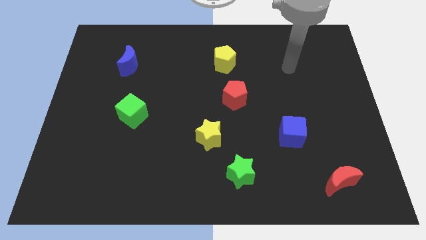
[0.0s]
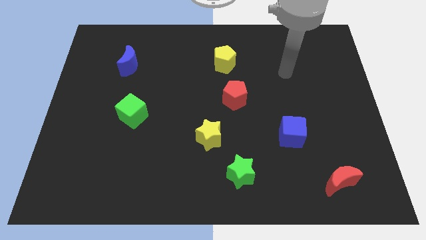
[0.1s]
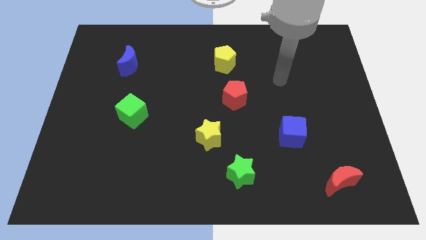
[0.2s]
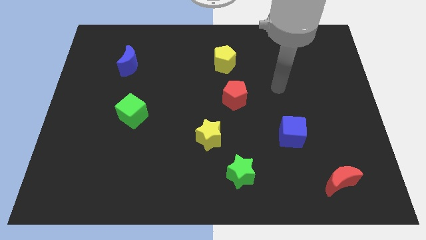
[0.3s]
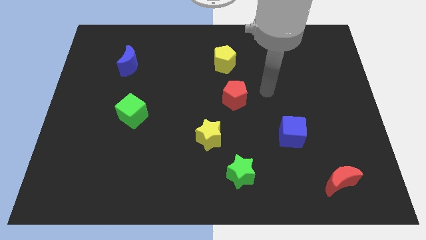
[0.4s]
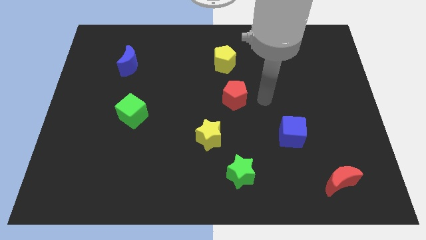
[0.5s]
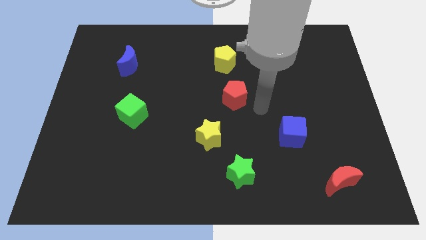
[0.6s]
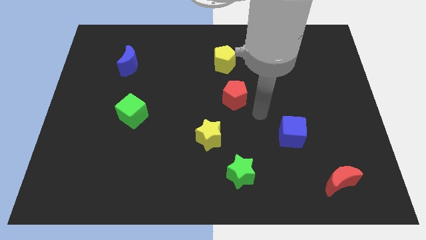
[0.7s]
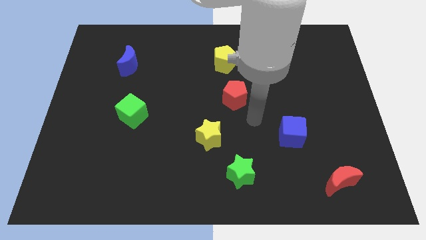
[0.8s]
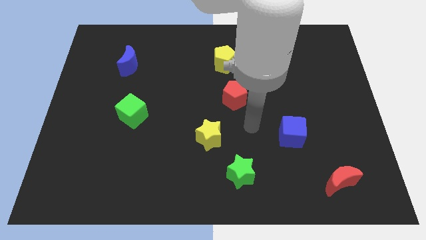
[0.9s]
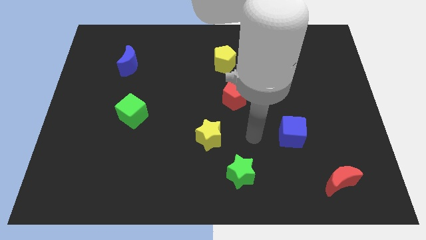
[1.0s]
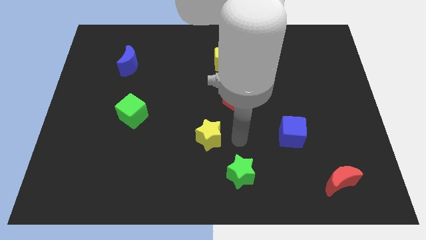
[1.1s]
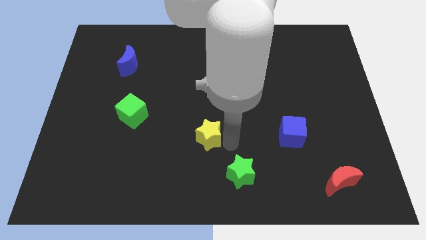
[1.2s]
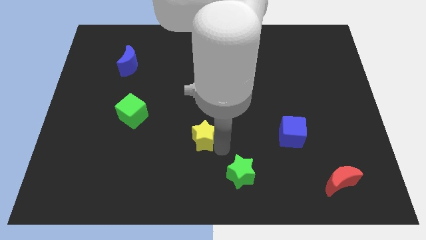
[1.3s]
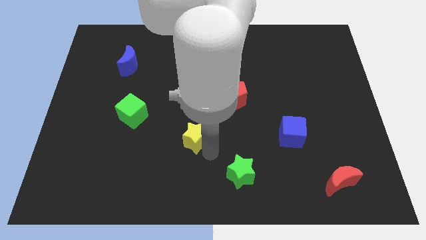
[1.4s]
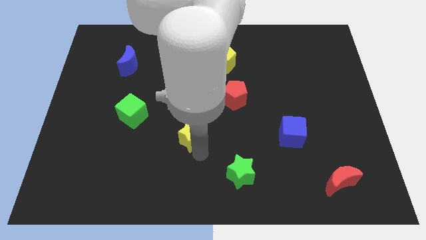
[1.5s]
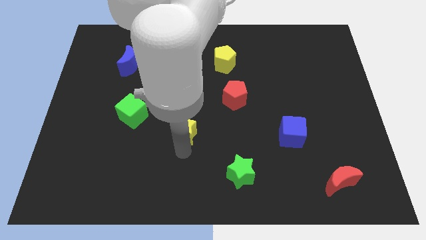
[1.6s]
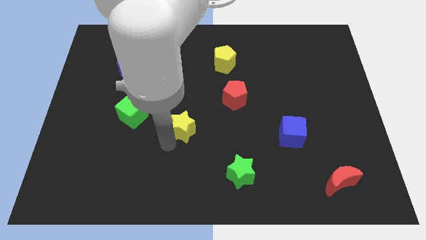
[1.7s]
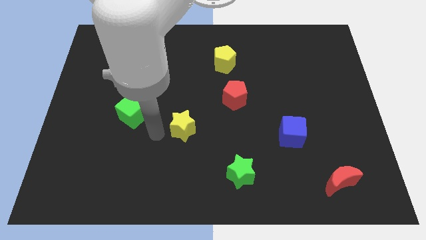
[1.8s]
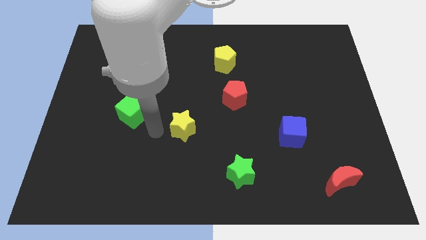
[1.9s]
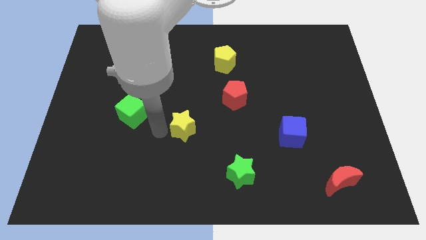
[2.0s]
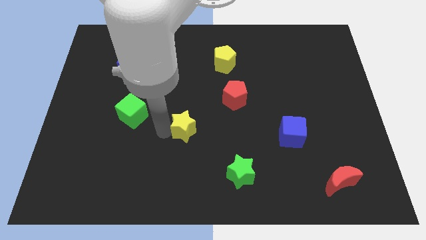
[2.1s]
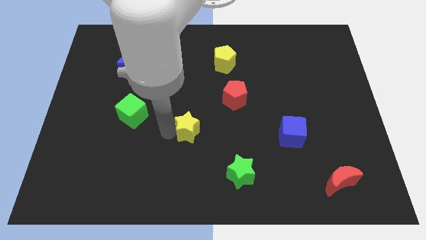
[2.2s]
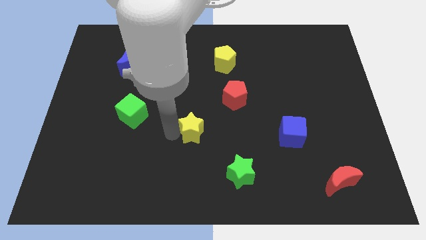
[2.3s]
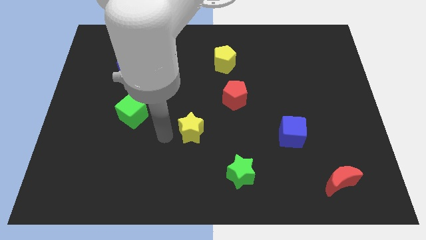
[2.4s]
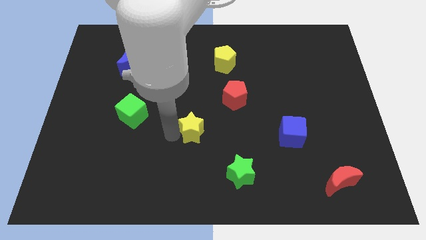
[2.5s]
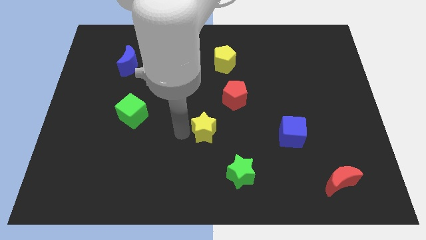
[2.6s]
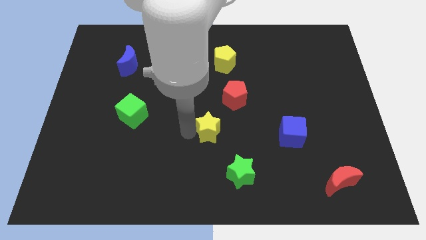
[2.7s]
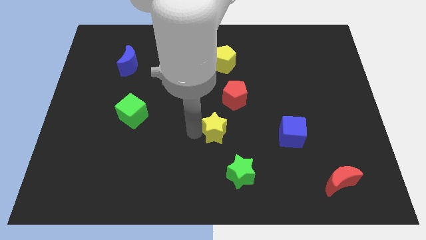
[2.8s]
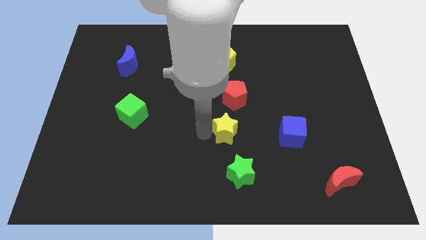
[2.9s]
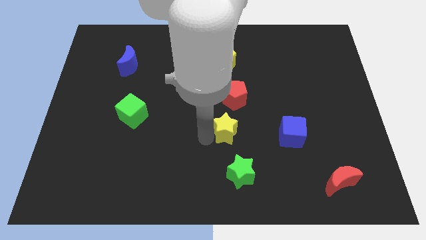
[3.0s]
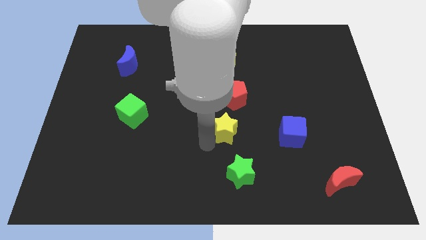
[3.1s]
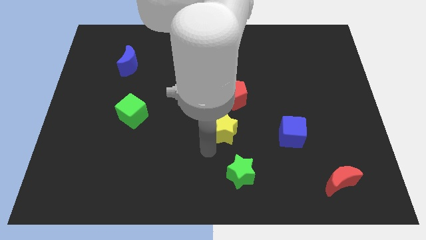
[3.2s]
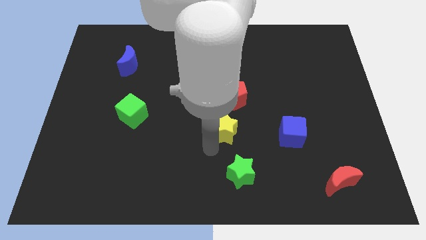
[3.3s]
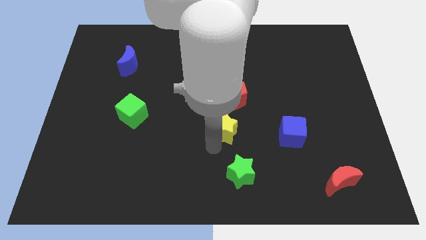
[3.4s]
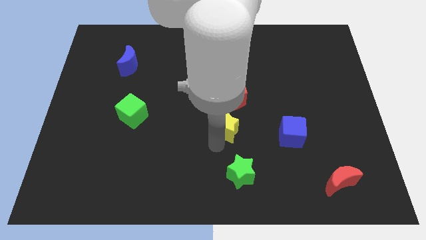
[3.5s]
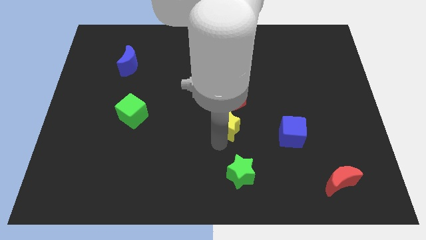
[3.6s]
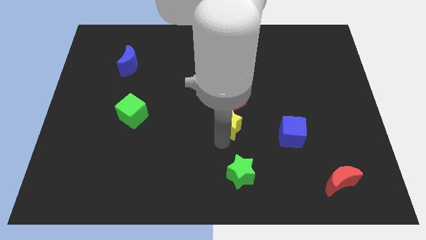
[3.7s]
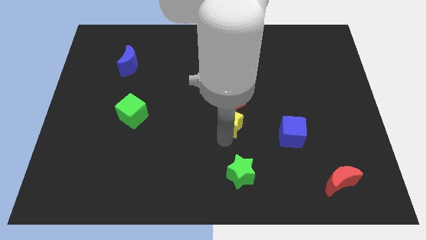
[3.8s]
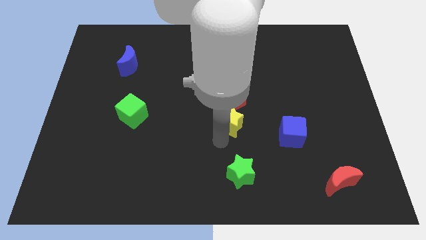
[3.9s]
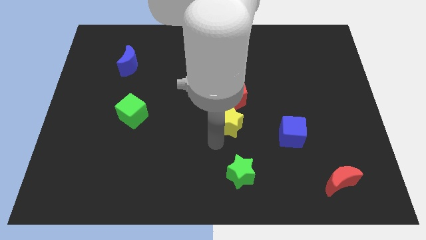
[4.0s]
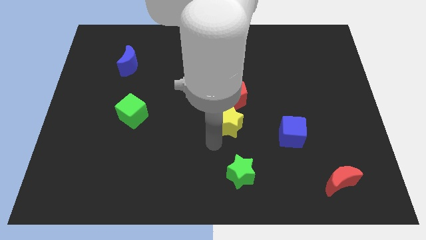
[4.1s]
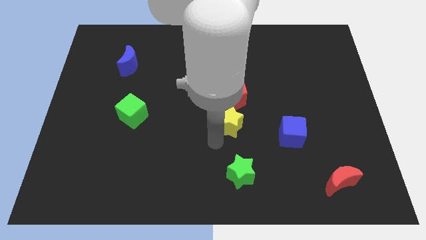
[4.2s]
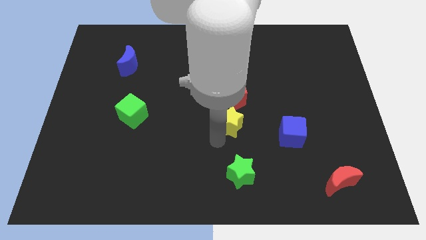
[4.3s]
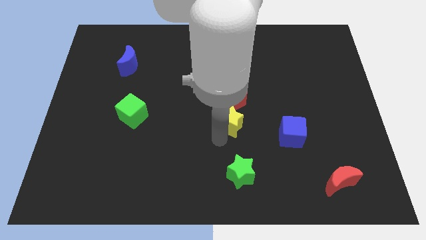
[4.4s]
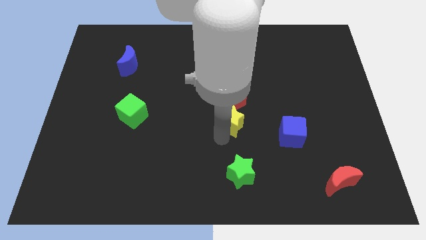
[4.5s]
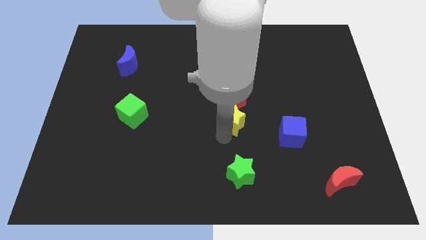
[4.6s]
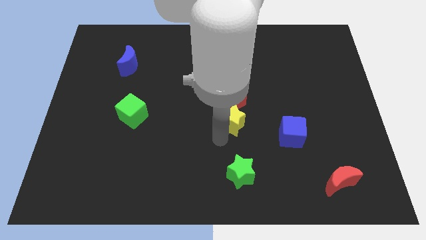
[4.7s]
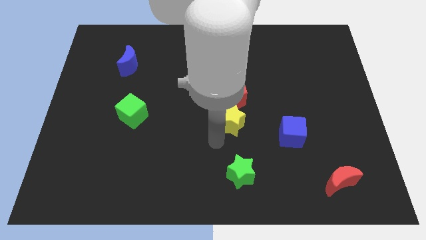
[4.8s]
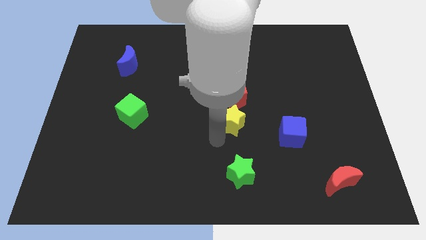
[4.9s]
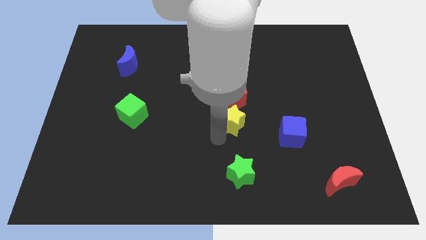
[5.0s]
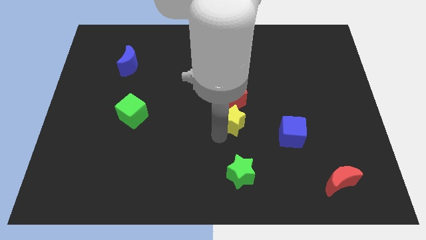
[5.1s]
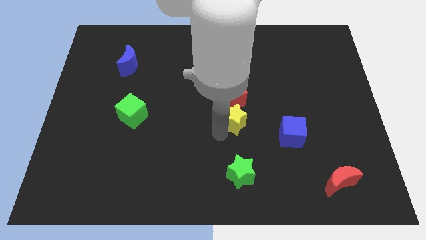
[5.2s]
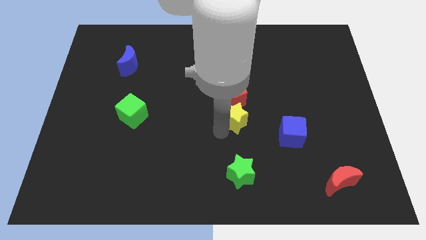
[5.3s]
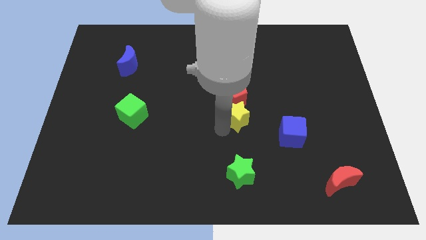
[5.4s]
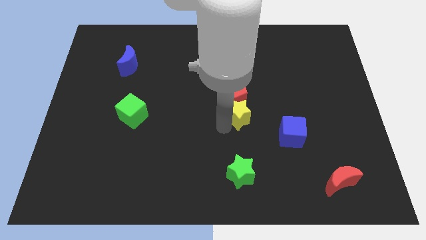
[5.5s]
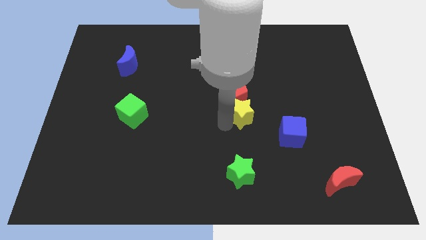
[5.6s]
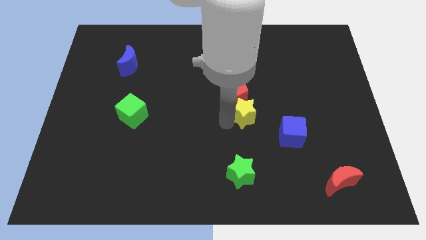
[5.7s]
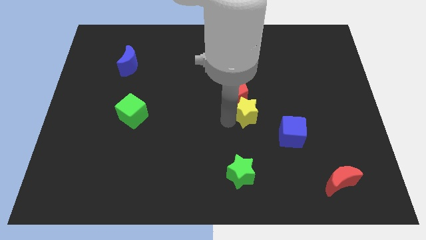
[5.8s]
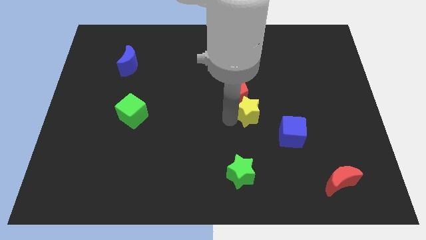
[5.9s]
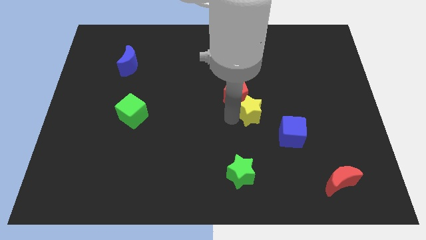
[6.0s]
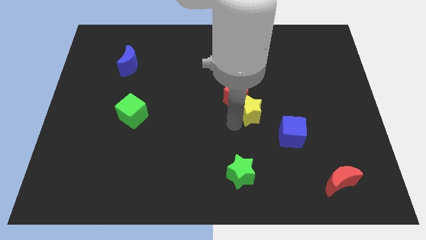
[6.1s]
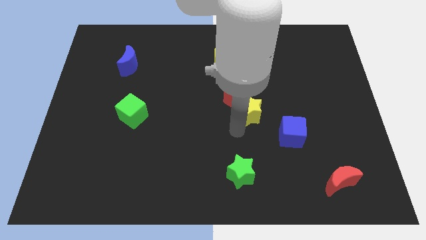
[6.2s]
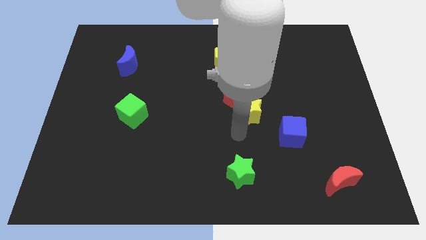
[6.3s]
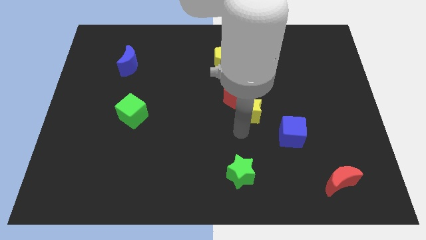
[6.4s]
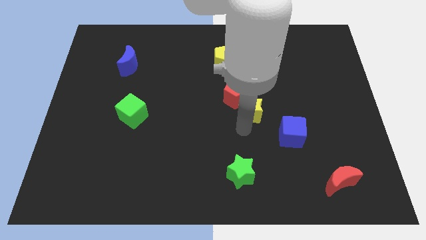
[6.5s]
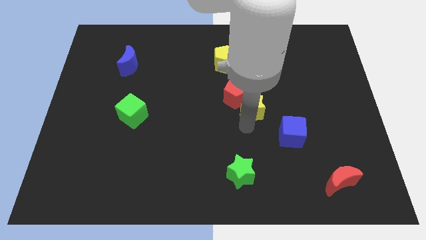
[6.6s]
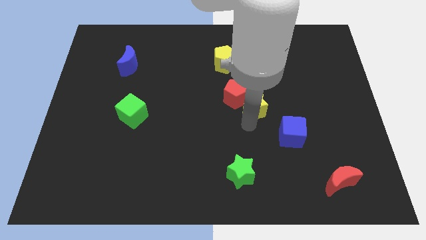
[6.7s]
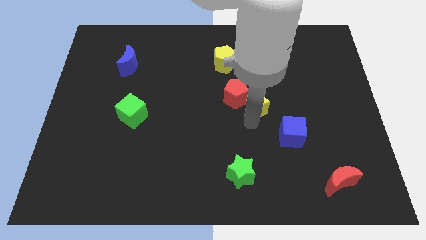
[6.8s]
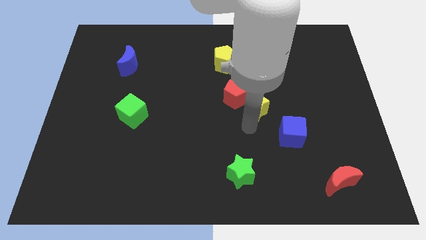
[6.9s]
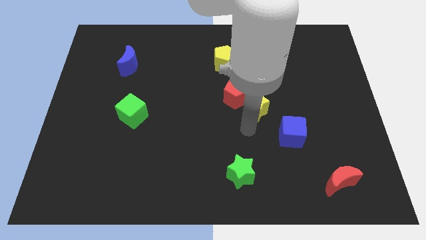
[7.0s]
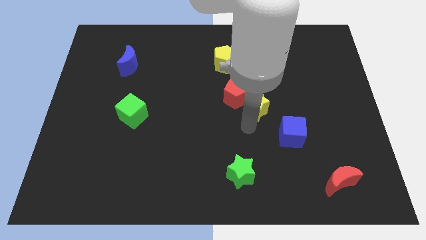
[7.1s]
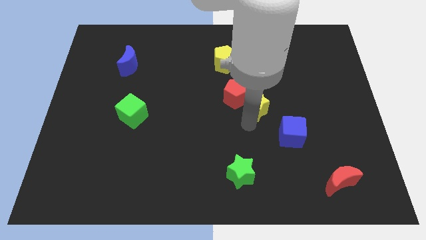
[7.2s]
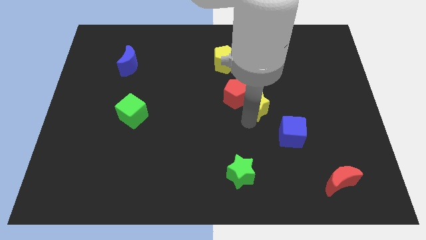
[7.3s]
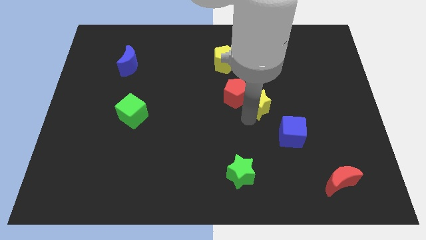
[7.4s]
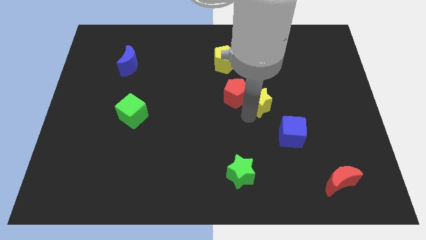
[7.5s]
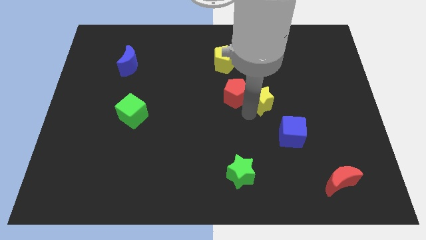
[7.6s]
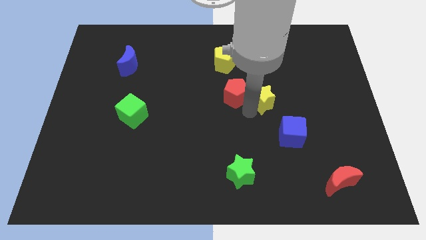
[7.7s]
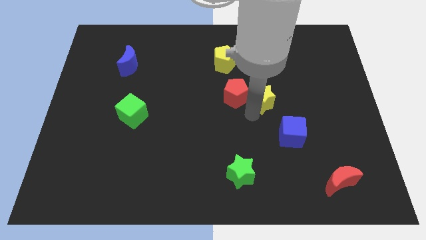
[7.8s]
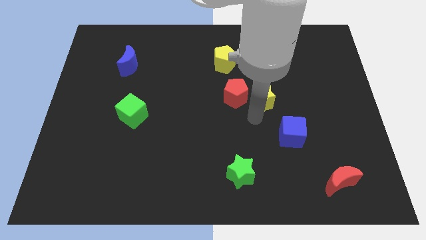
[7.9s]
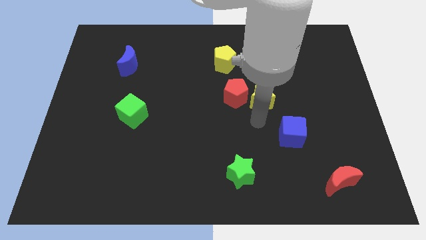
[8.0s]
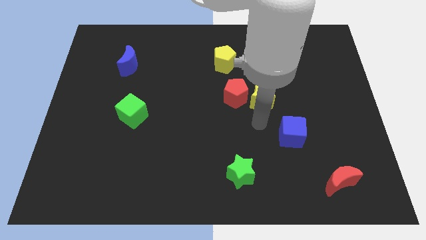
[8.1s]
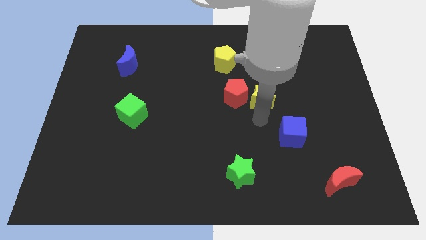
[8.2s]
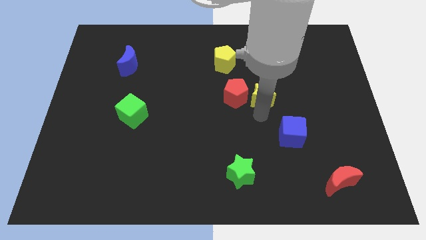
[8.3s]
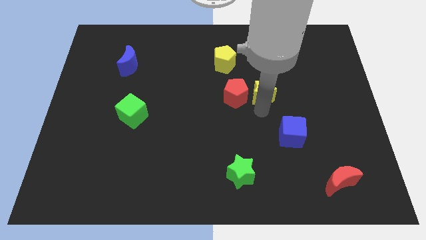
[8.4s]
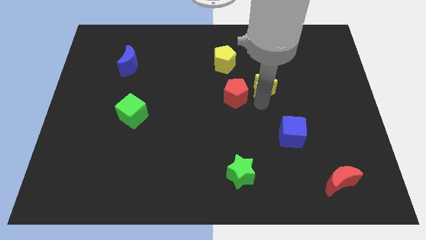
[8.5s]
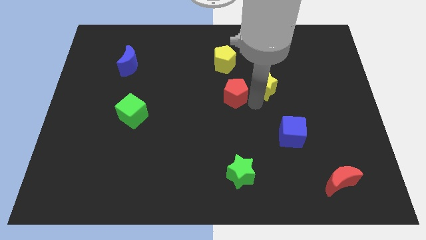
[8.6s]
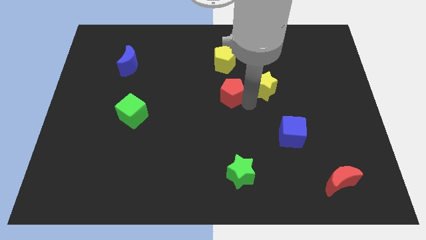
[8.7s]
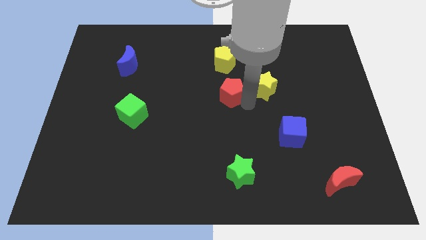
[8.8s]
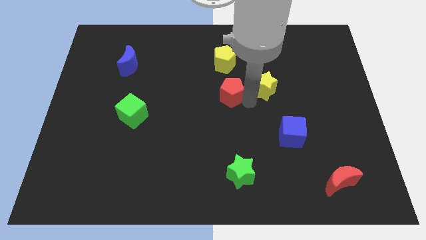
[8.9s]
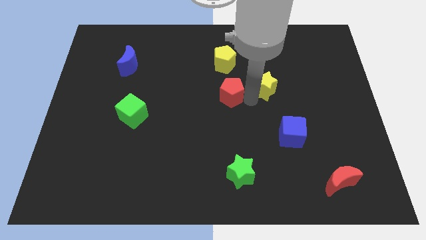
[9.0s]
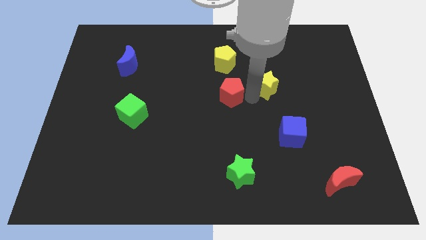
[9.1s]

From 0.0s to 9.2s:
slide the yellow star upwards and then right
